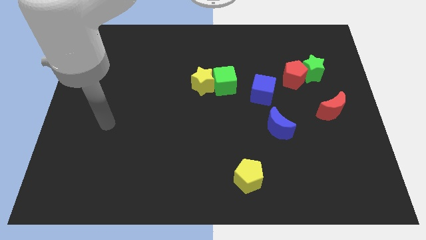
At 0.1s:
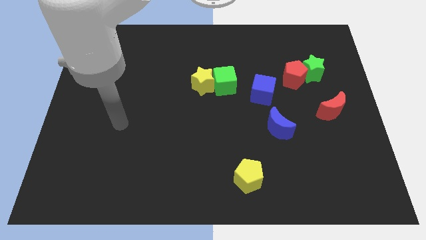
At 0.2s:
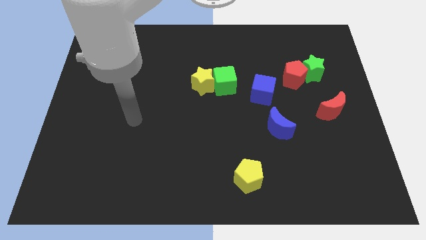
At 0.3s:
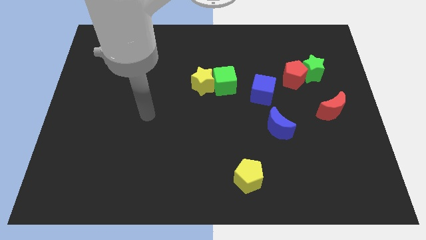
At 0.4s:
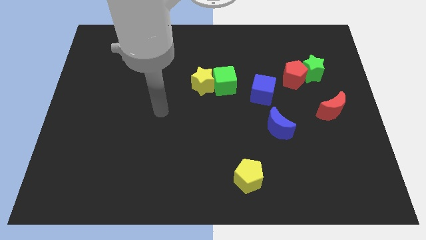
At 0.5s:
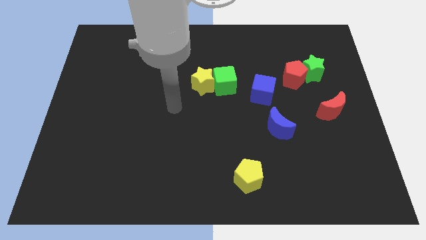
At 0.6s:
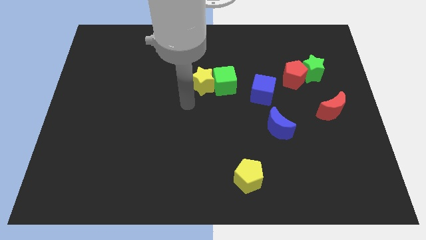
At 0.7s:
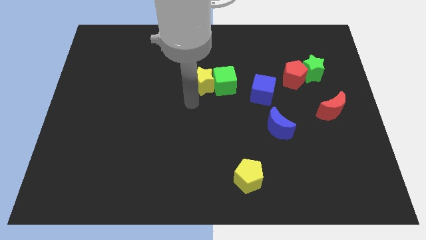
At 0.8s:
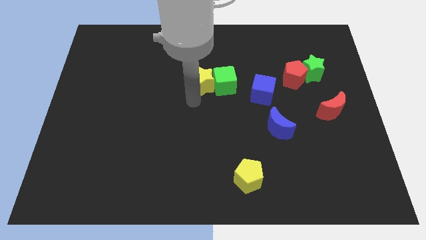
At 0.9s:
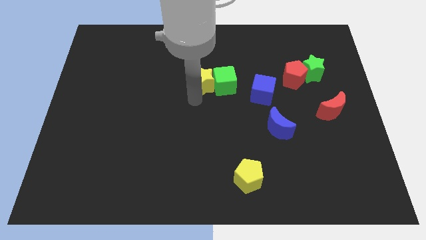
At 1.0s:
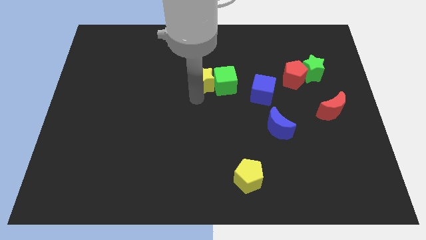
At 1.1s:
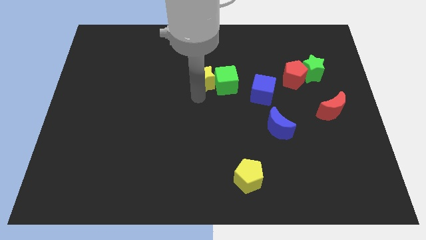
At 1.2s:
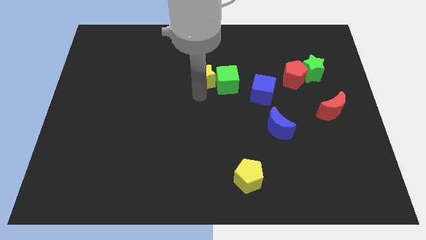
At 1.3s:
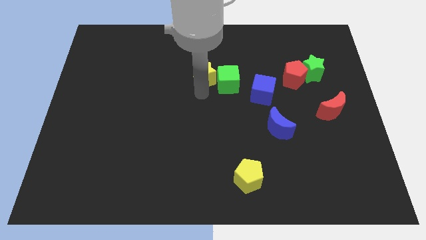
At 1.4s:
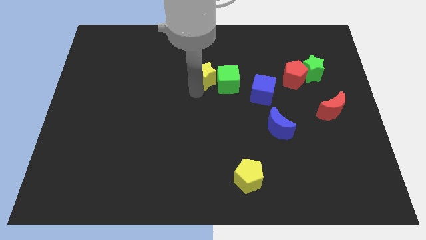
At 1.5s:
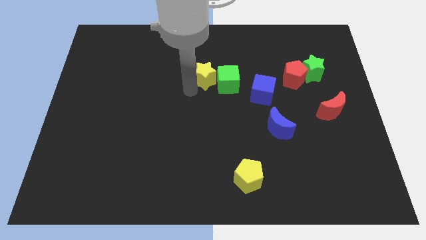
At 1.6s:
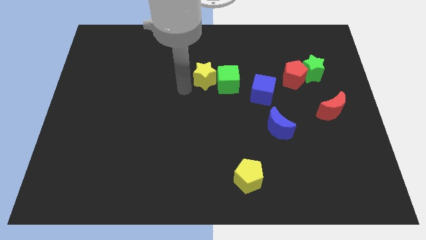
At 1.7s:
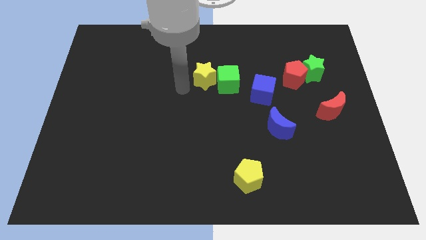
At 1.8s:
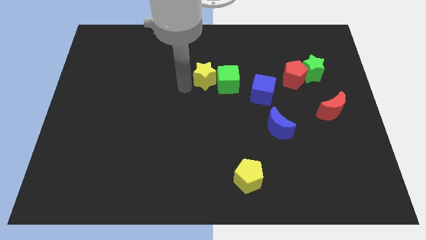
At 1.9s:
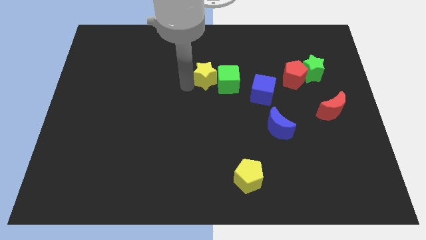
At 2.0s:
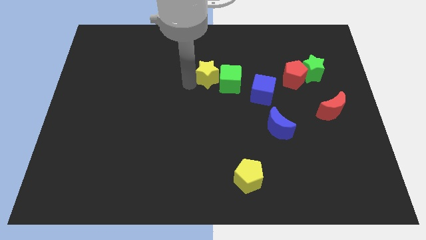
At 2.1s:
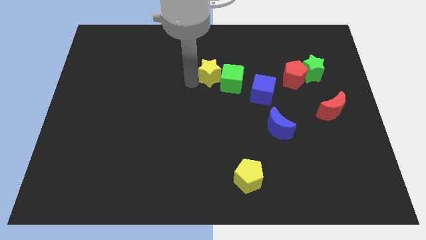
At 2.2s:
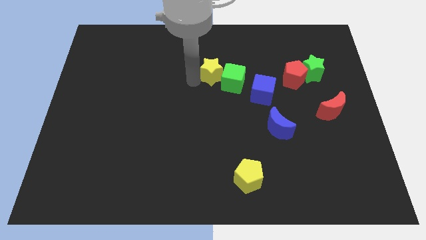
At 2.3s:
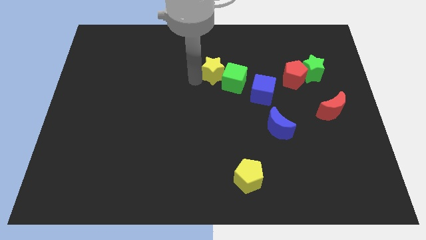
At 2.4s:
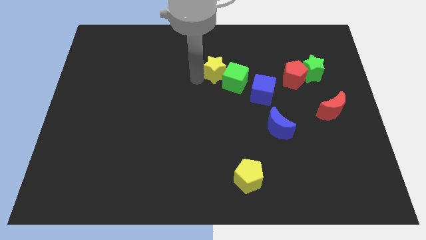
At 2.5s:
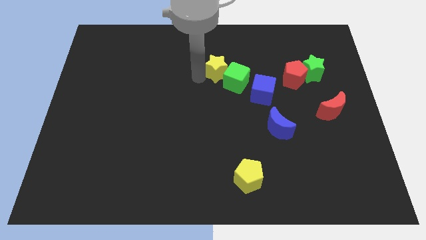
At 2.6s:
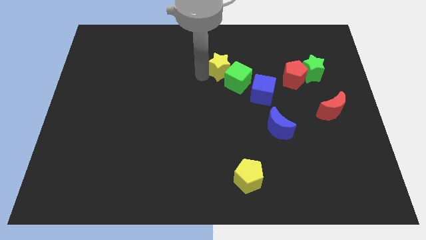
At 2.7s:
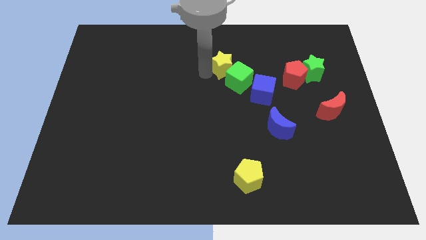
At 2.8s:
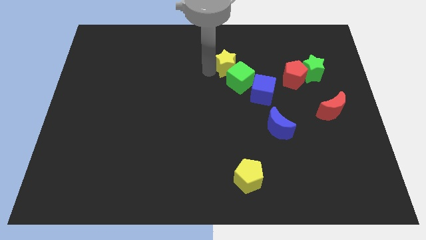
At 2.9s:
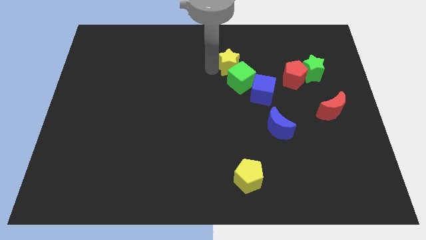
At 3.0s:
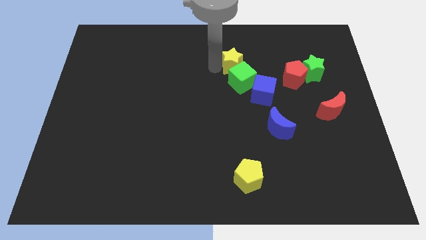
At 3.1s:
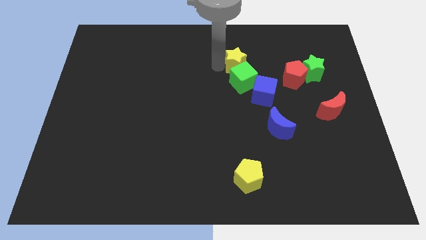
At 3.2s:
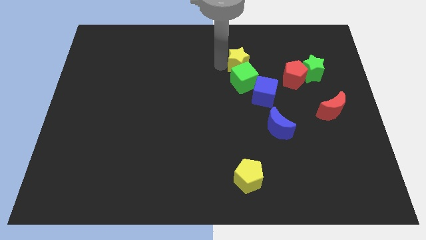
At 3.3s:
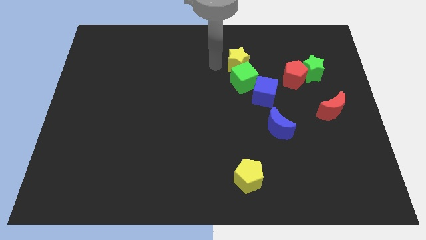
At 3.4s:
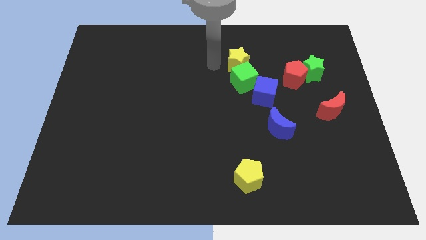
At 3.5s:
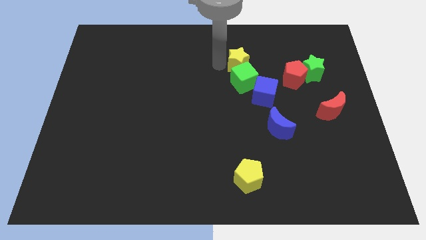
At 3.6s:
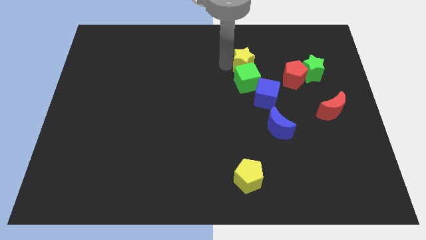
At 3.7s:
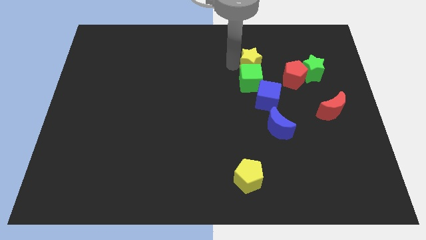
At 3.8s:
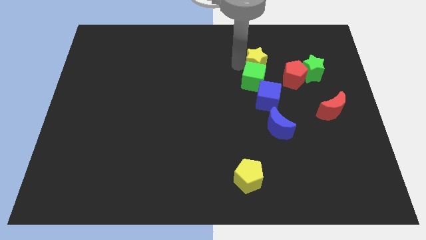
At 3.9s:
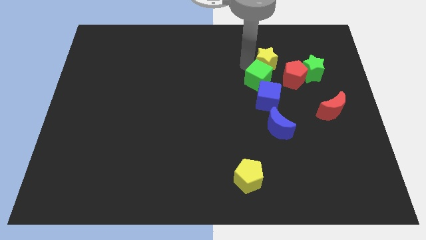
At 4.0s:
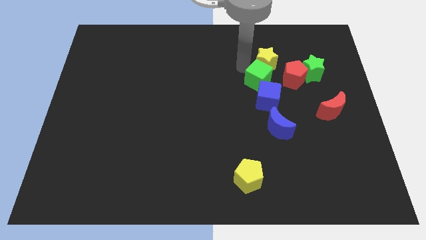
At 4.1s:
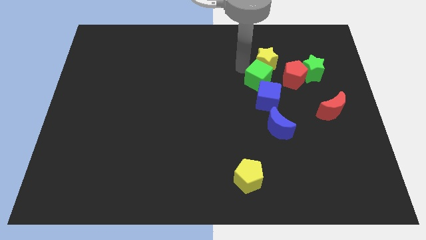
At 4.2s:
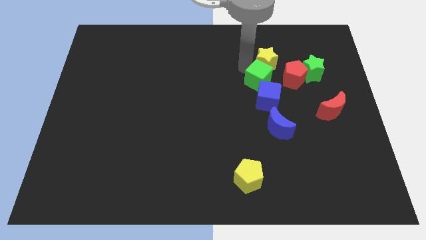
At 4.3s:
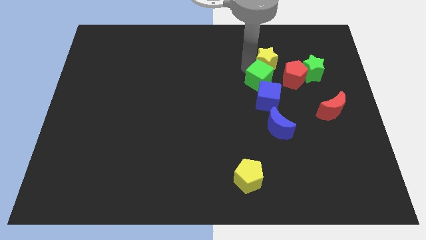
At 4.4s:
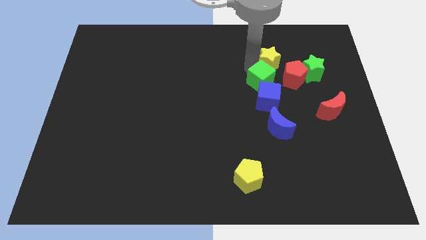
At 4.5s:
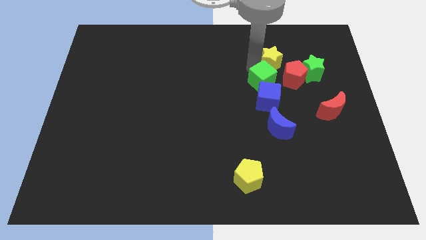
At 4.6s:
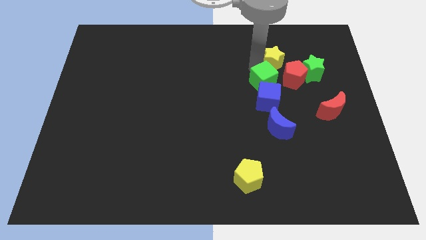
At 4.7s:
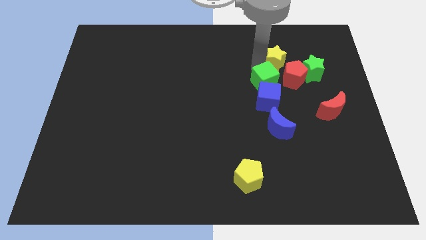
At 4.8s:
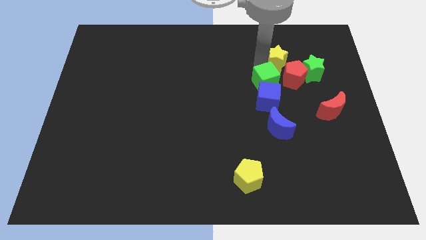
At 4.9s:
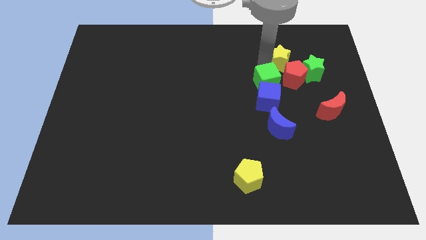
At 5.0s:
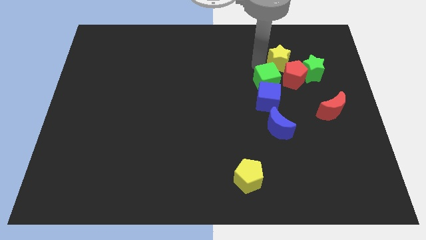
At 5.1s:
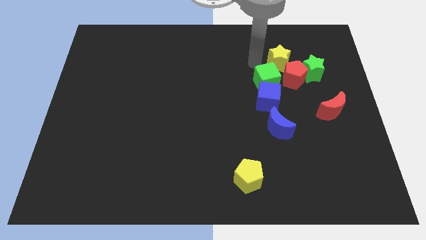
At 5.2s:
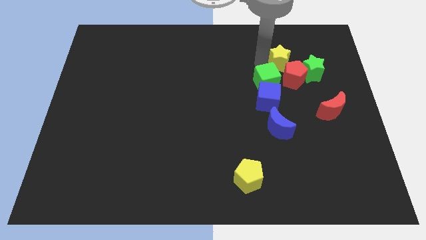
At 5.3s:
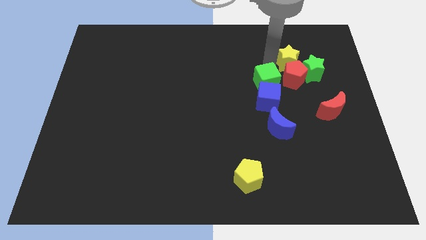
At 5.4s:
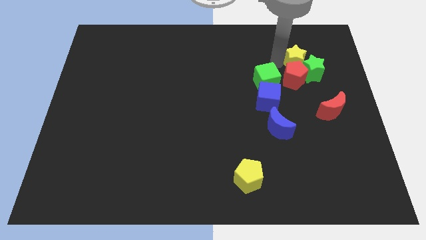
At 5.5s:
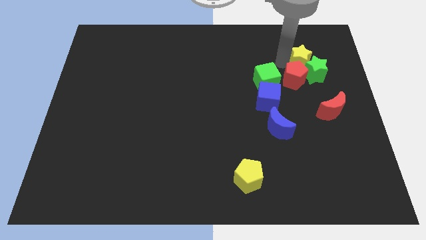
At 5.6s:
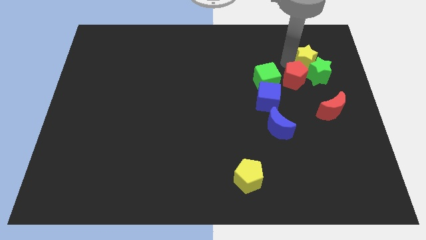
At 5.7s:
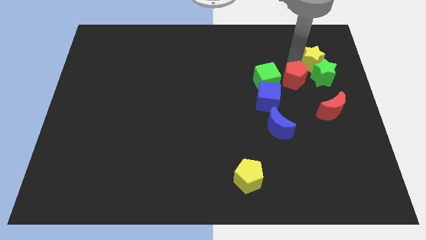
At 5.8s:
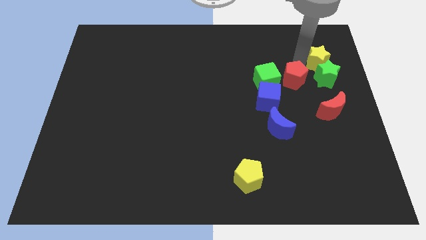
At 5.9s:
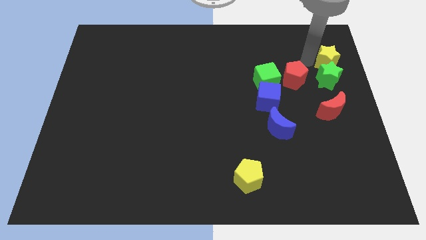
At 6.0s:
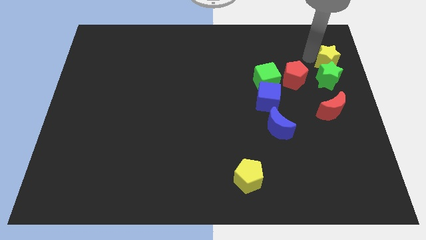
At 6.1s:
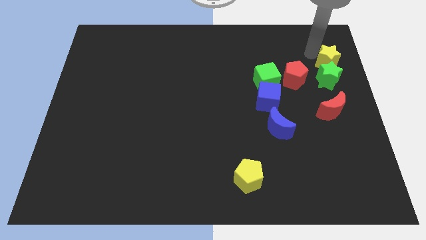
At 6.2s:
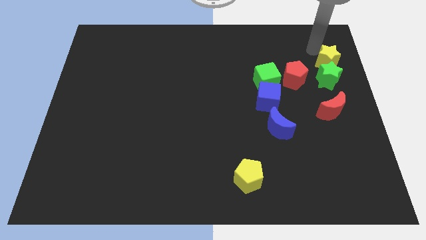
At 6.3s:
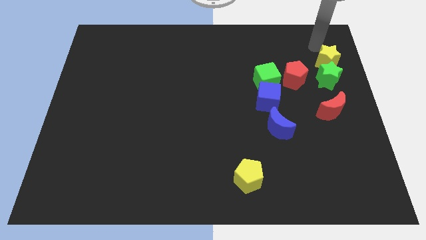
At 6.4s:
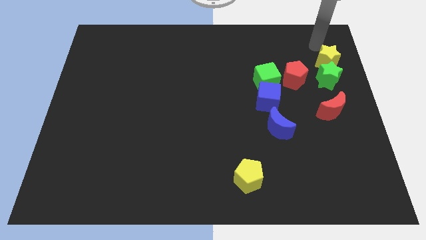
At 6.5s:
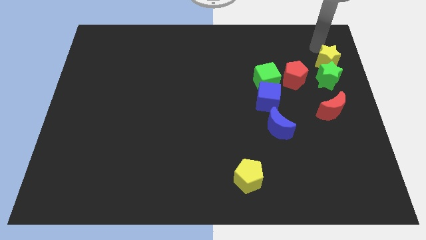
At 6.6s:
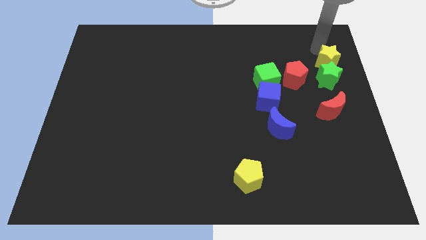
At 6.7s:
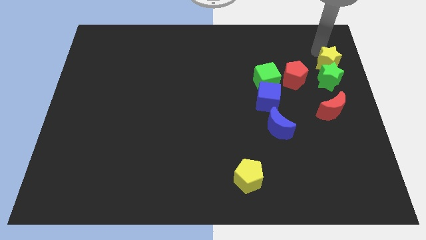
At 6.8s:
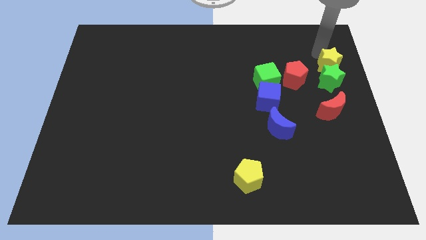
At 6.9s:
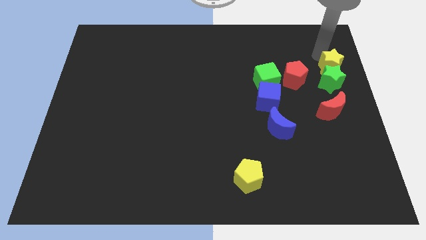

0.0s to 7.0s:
push the yellow star to the center right
